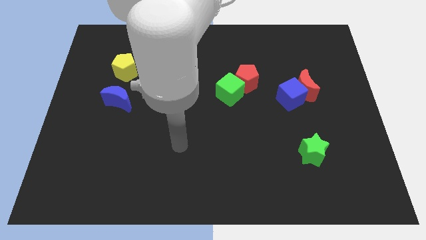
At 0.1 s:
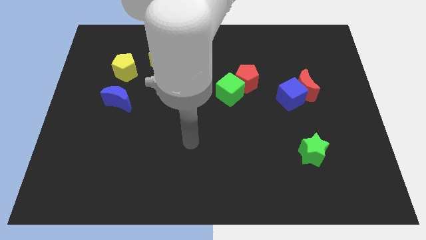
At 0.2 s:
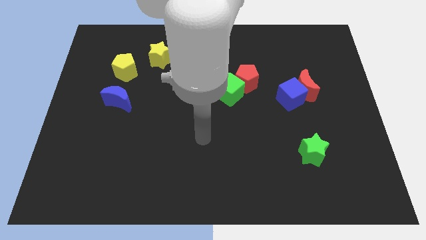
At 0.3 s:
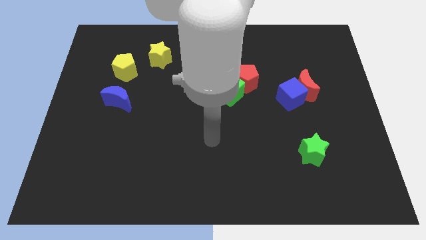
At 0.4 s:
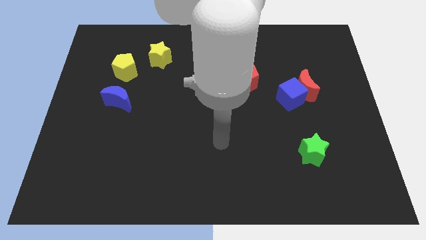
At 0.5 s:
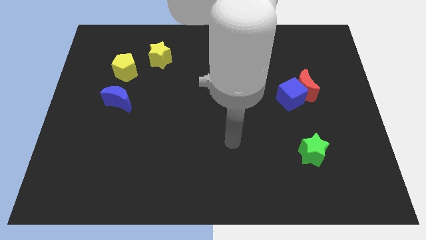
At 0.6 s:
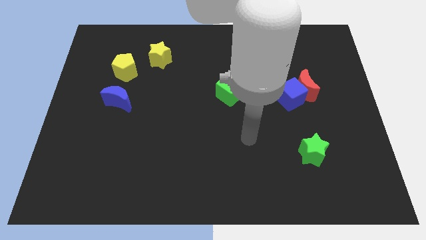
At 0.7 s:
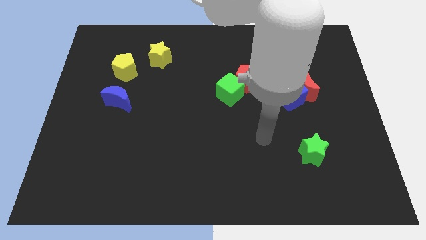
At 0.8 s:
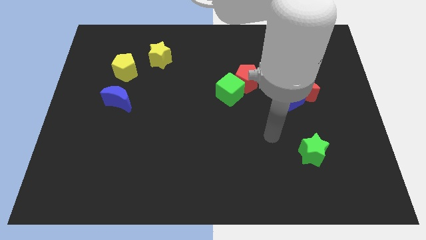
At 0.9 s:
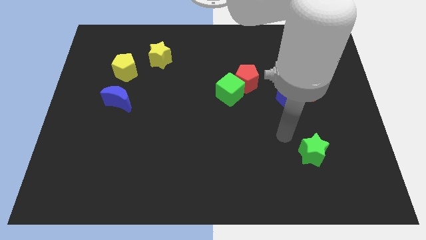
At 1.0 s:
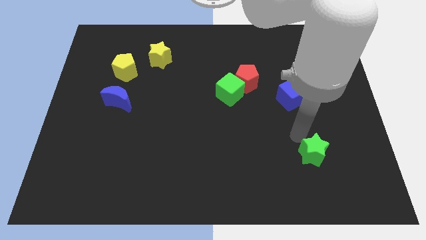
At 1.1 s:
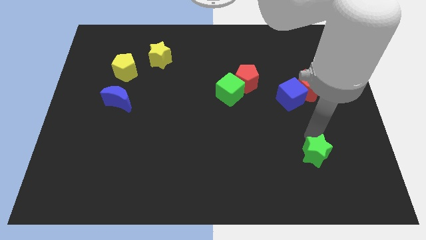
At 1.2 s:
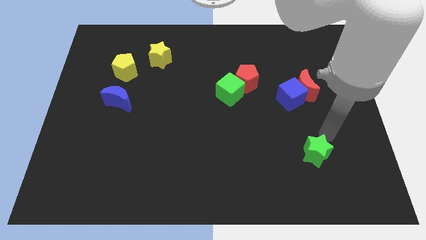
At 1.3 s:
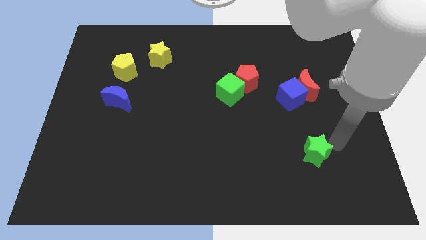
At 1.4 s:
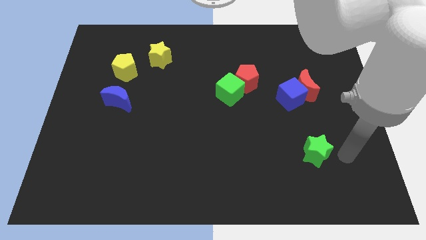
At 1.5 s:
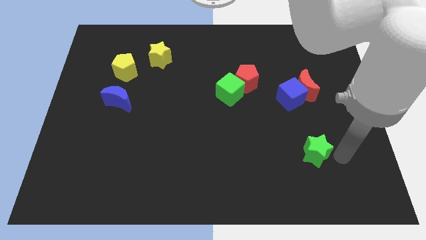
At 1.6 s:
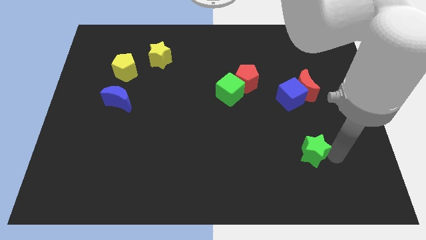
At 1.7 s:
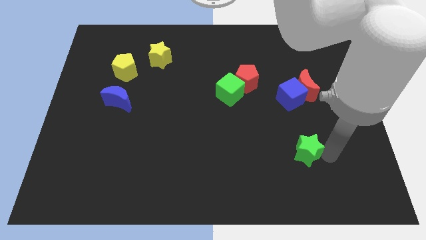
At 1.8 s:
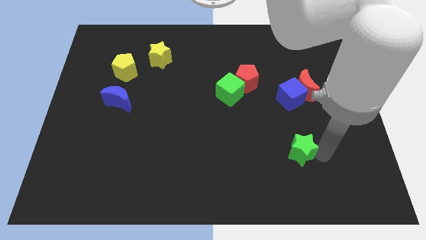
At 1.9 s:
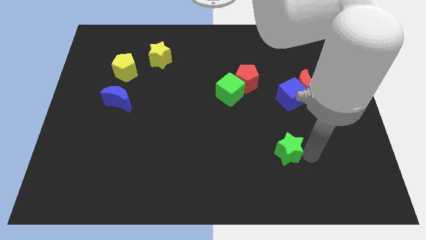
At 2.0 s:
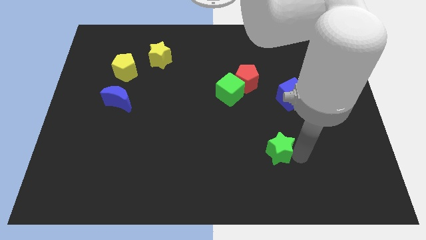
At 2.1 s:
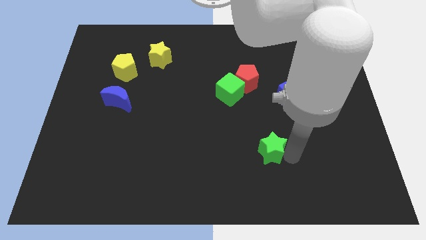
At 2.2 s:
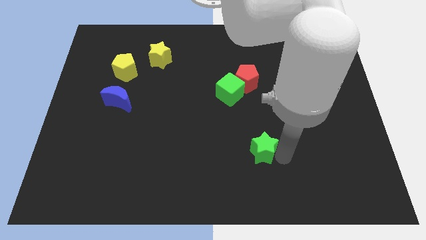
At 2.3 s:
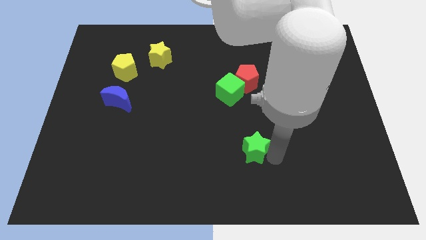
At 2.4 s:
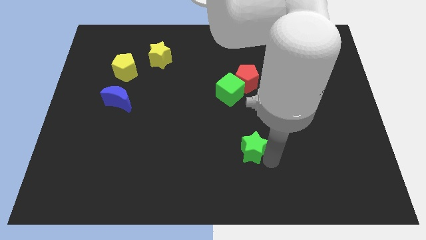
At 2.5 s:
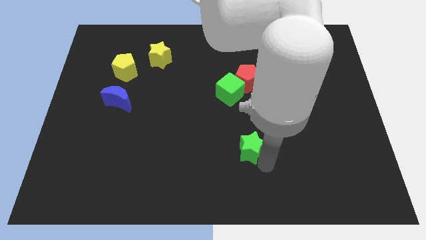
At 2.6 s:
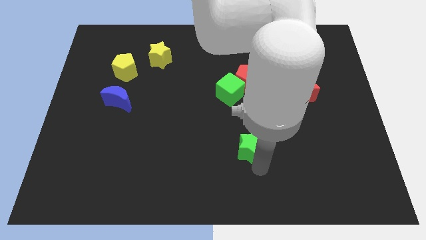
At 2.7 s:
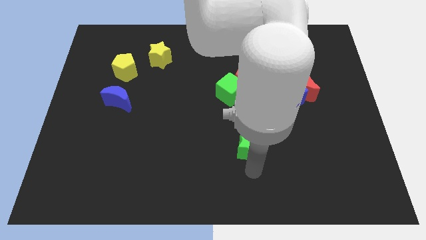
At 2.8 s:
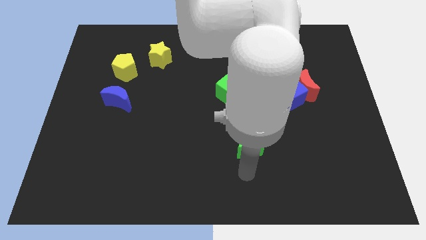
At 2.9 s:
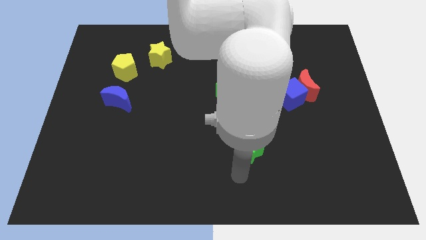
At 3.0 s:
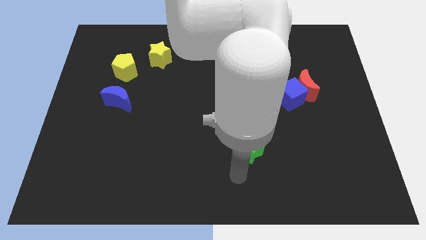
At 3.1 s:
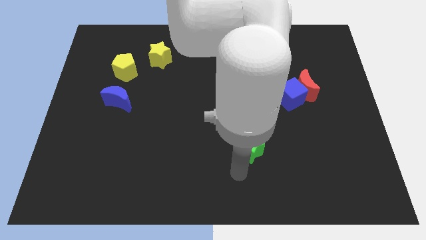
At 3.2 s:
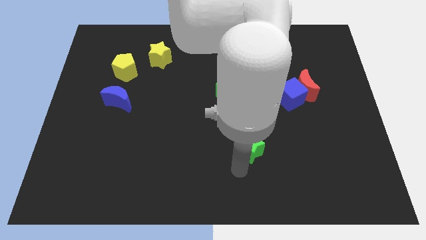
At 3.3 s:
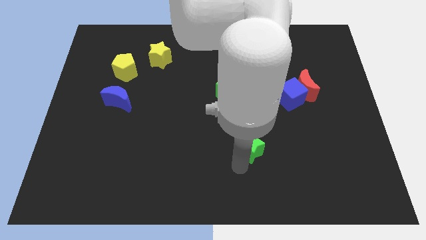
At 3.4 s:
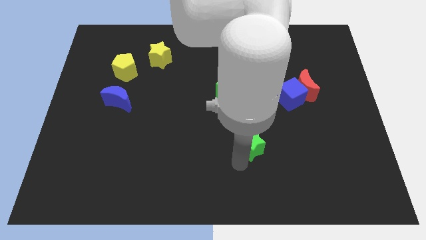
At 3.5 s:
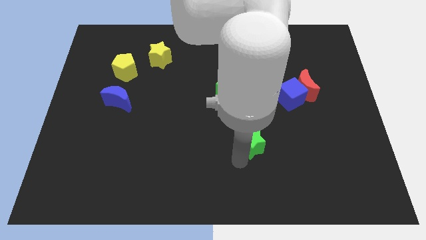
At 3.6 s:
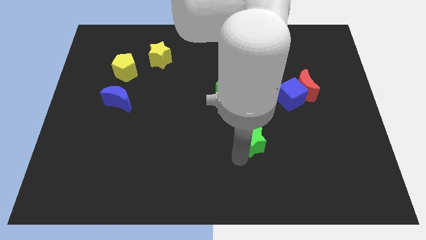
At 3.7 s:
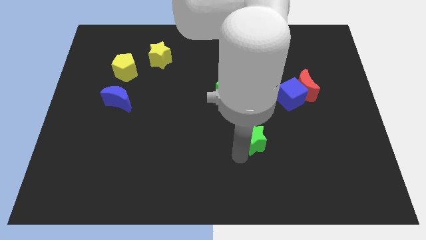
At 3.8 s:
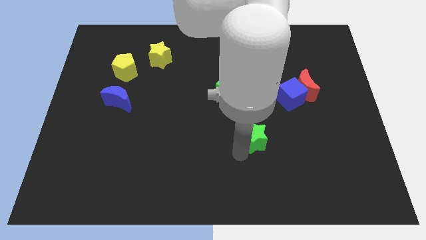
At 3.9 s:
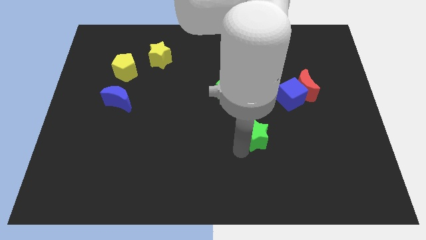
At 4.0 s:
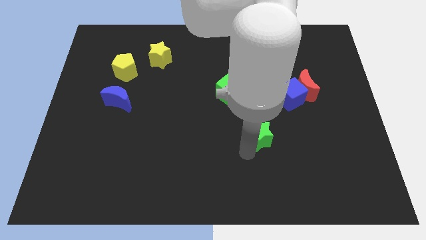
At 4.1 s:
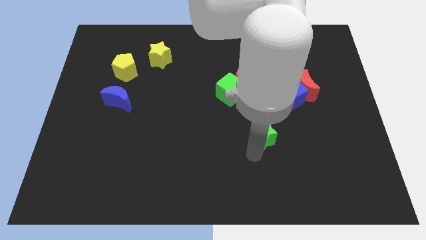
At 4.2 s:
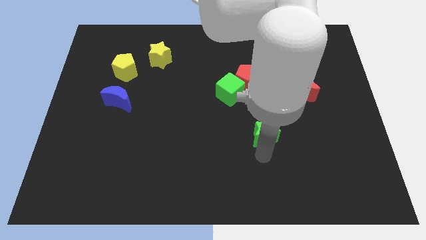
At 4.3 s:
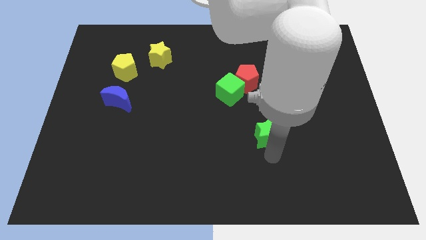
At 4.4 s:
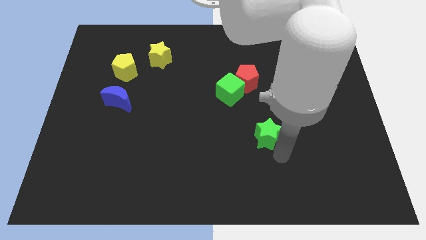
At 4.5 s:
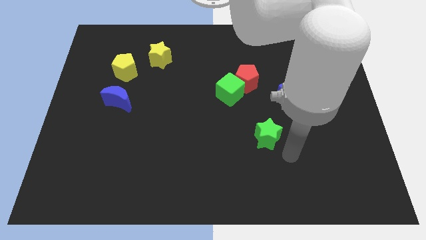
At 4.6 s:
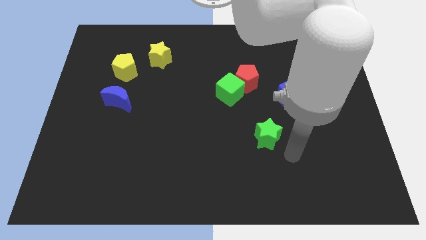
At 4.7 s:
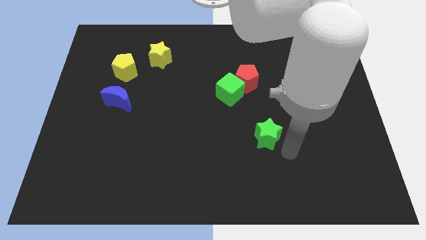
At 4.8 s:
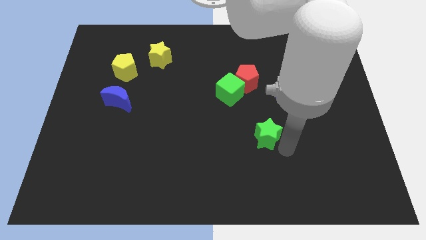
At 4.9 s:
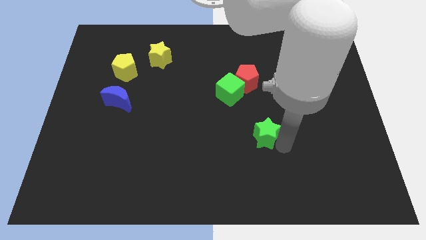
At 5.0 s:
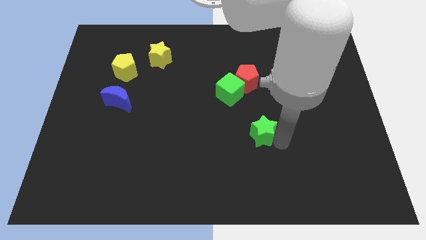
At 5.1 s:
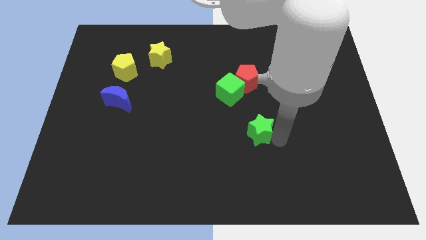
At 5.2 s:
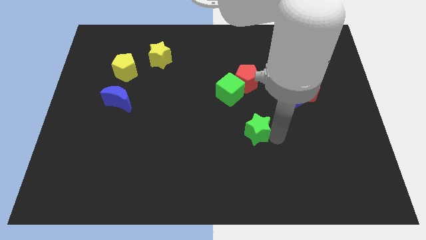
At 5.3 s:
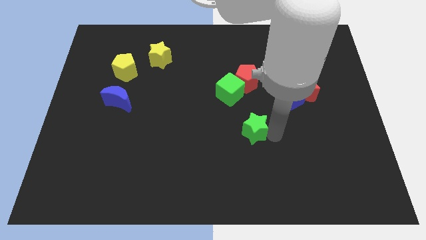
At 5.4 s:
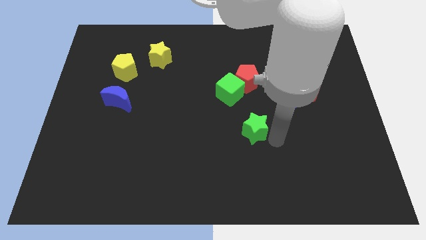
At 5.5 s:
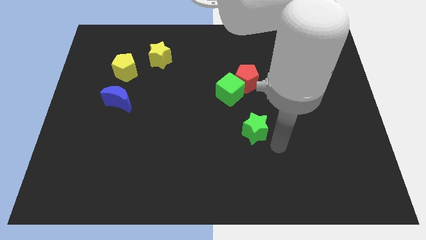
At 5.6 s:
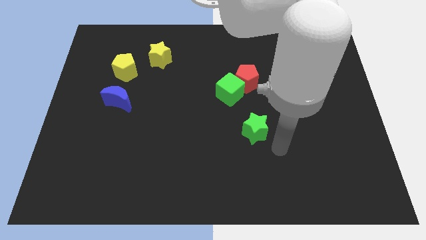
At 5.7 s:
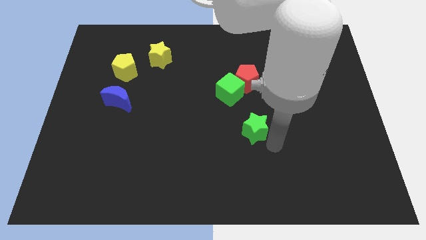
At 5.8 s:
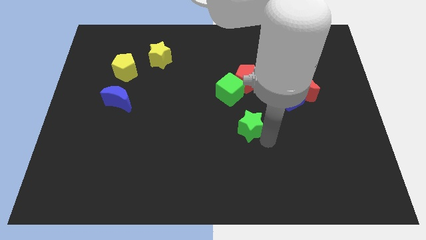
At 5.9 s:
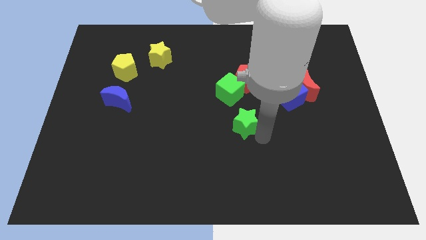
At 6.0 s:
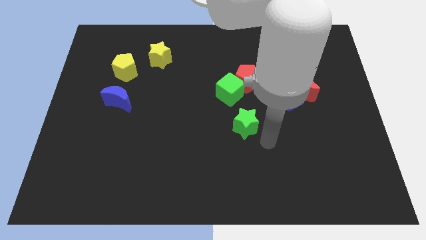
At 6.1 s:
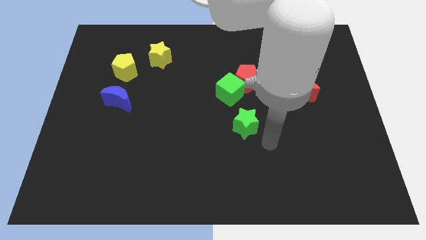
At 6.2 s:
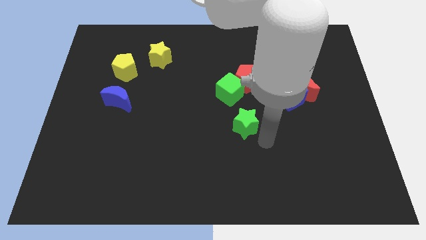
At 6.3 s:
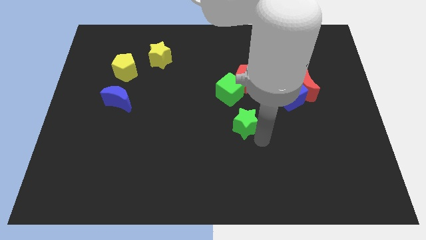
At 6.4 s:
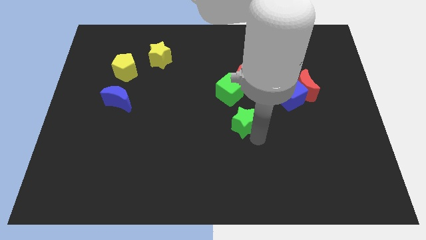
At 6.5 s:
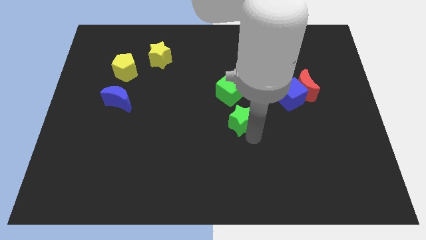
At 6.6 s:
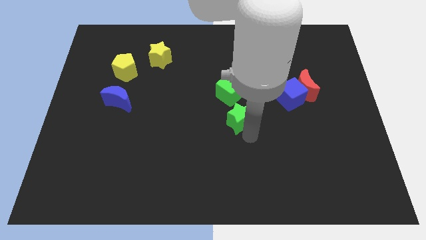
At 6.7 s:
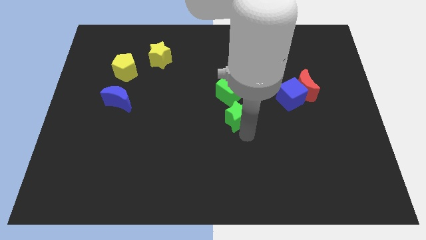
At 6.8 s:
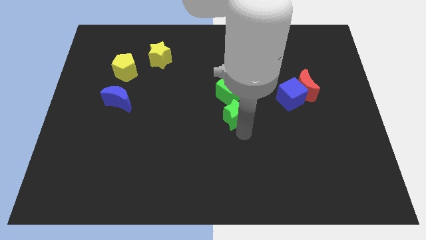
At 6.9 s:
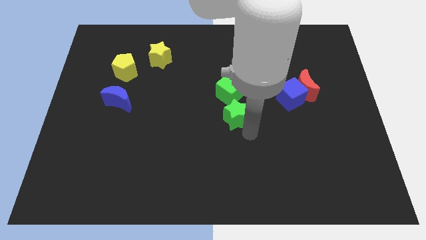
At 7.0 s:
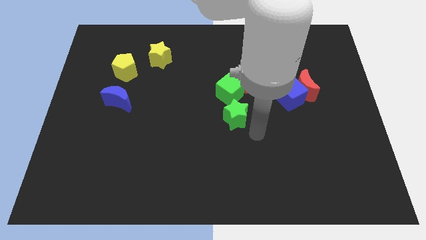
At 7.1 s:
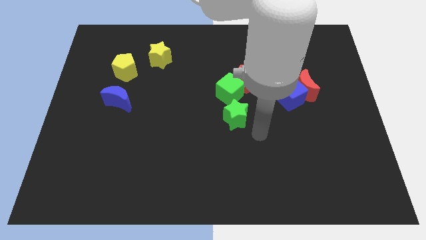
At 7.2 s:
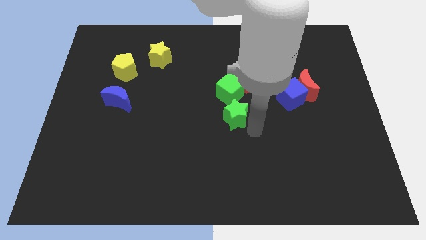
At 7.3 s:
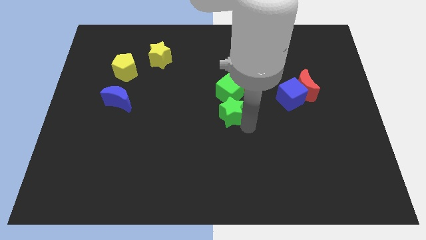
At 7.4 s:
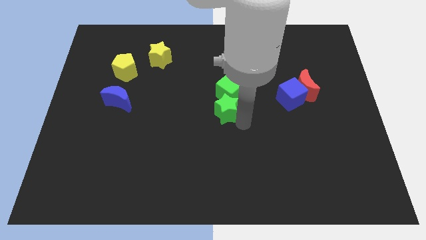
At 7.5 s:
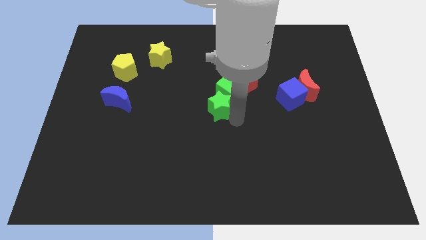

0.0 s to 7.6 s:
push the green star diagonally up and to the left

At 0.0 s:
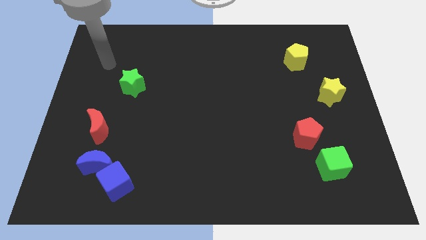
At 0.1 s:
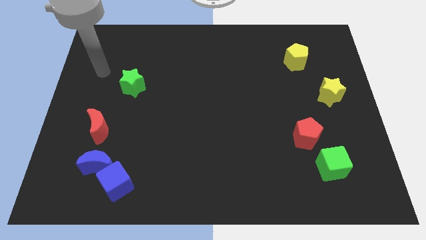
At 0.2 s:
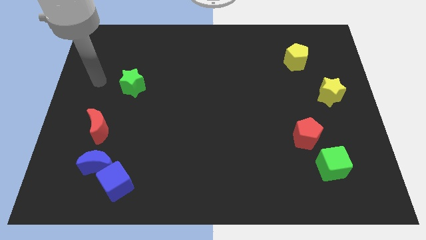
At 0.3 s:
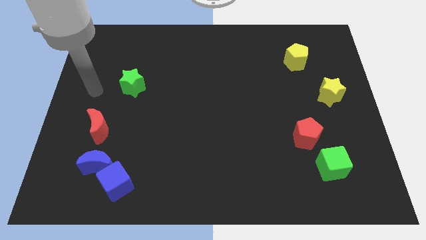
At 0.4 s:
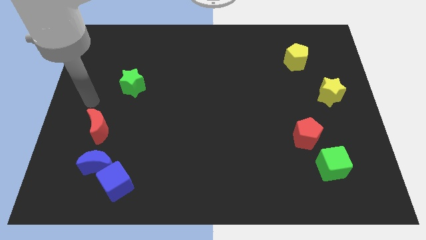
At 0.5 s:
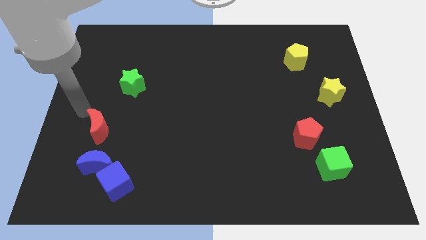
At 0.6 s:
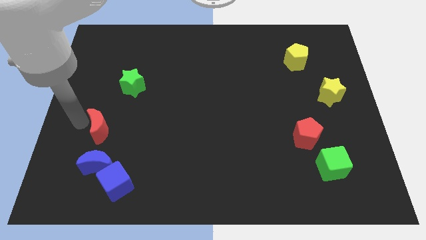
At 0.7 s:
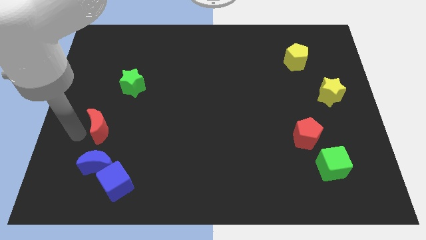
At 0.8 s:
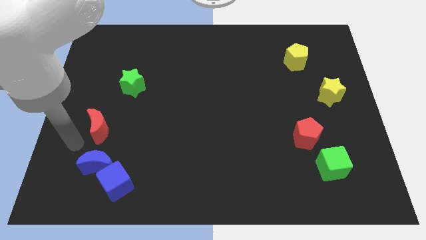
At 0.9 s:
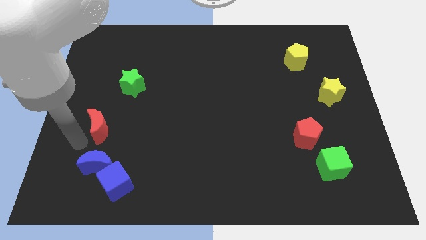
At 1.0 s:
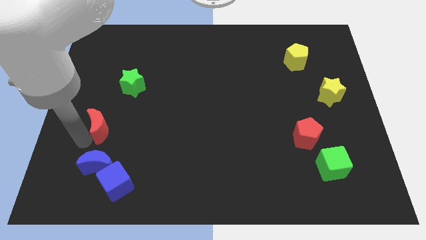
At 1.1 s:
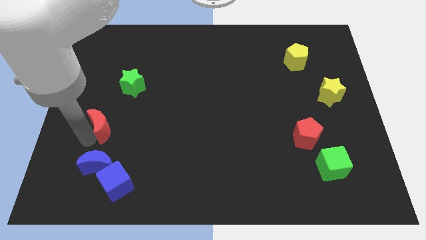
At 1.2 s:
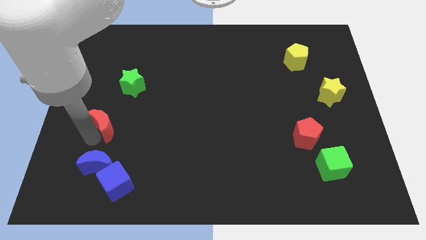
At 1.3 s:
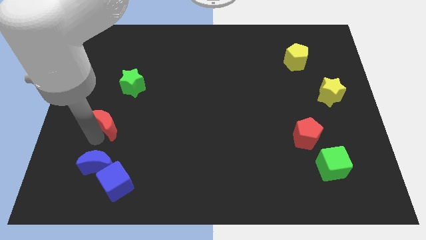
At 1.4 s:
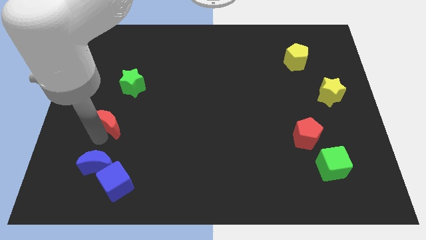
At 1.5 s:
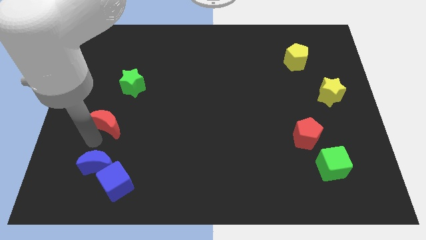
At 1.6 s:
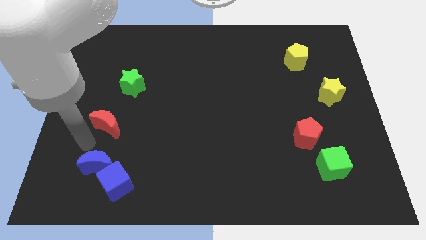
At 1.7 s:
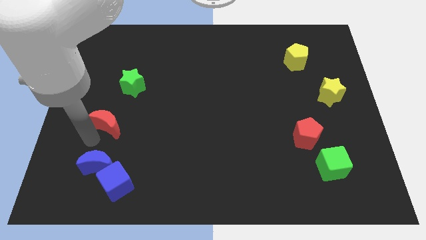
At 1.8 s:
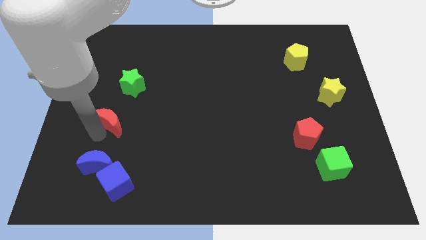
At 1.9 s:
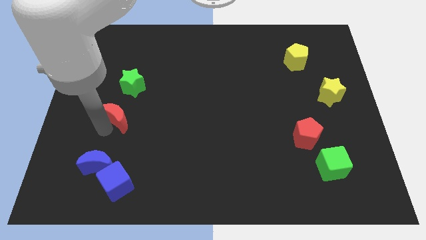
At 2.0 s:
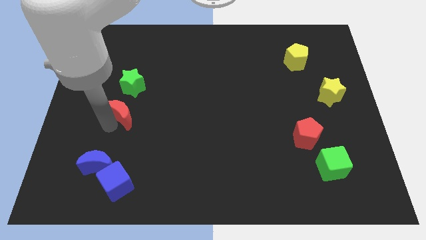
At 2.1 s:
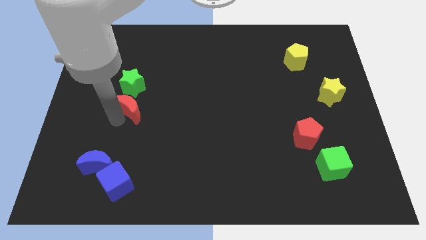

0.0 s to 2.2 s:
slightly push the red moon diagonally upwards and right
